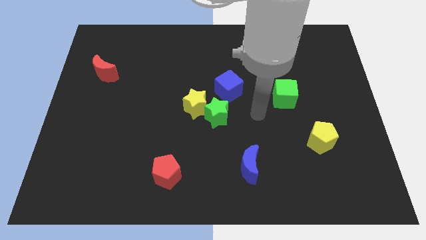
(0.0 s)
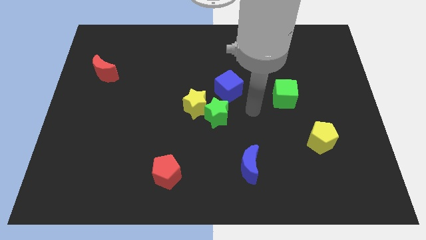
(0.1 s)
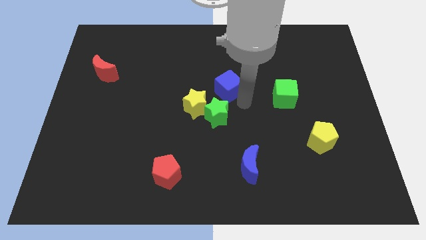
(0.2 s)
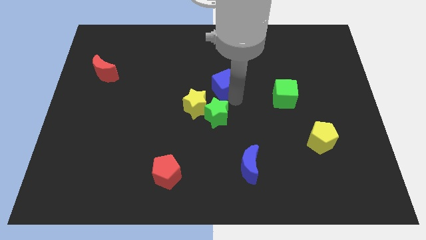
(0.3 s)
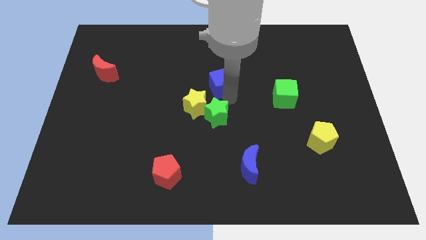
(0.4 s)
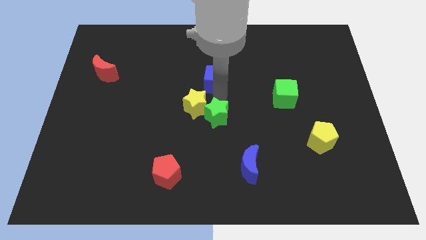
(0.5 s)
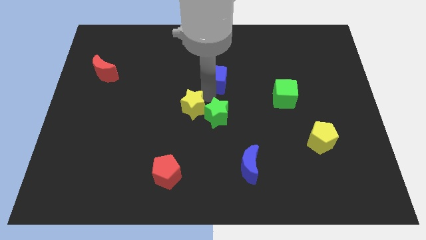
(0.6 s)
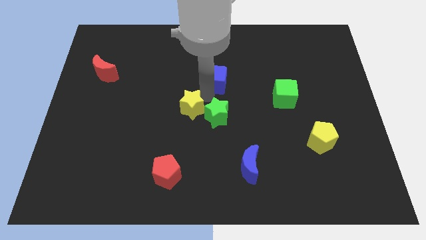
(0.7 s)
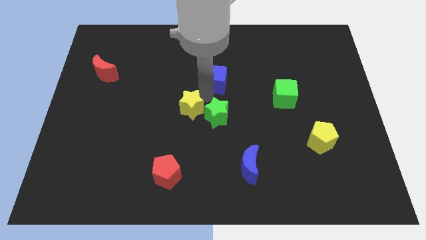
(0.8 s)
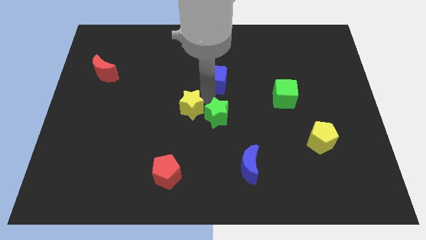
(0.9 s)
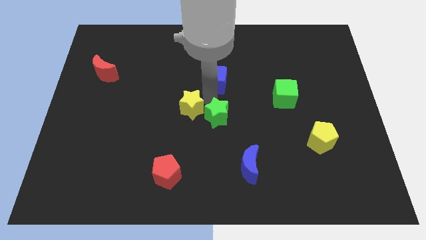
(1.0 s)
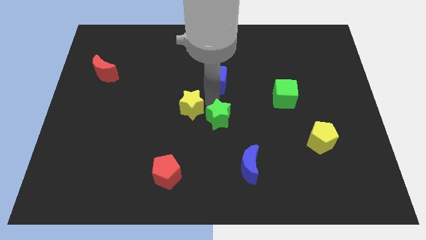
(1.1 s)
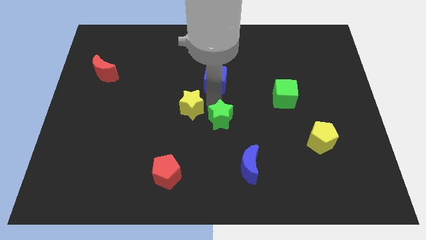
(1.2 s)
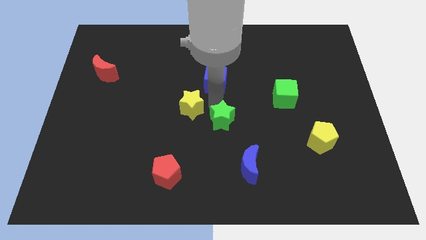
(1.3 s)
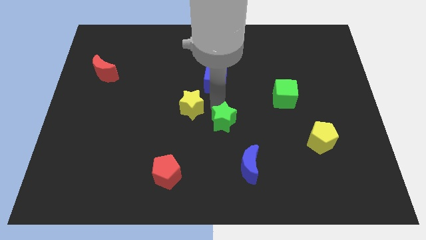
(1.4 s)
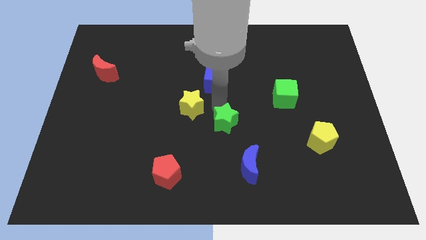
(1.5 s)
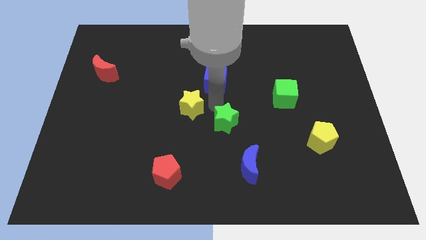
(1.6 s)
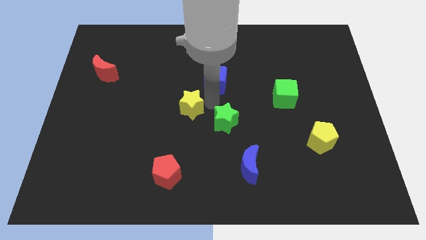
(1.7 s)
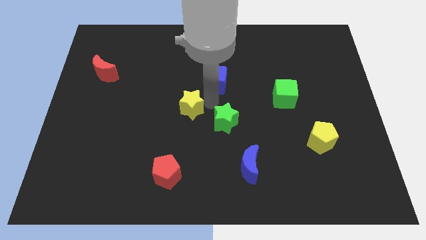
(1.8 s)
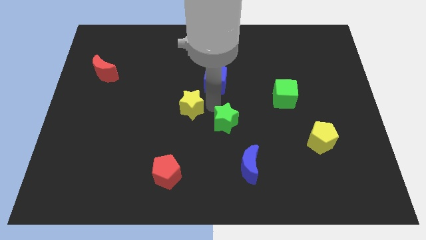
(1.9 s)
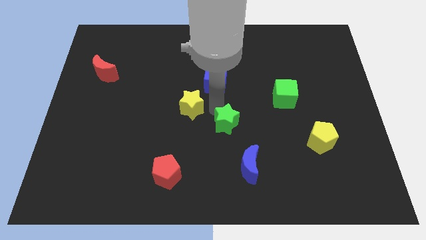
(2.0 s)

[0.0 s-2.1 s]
pull the green star apart from the yellow star and blue cube

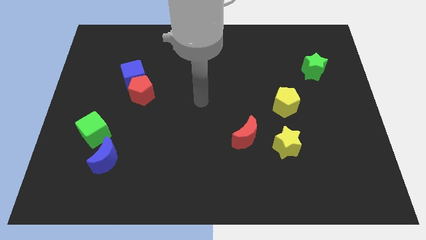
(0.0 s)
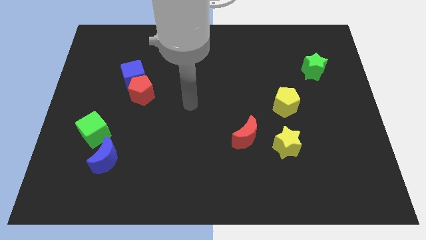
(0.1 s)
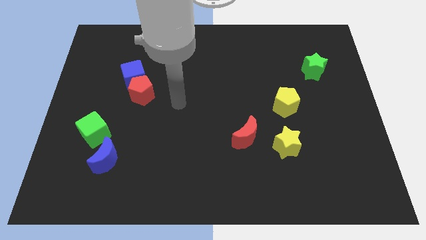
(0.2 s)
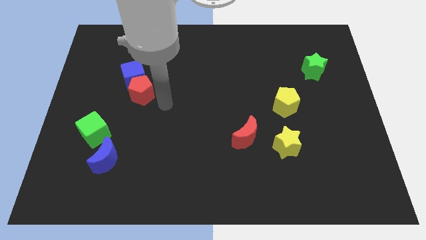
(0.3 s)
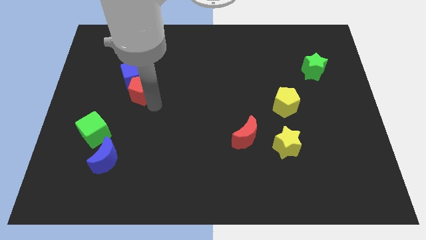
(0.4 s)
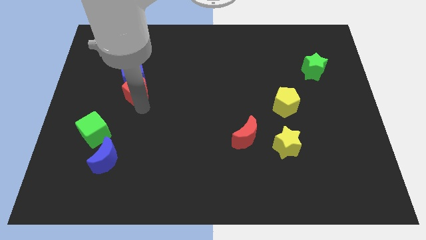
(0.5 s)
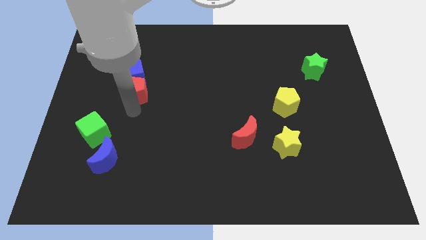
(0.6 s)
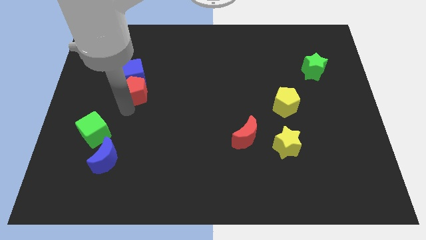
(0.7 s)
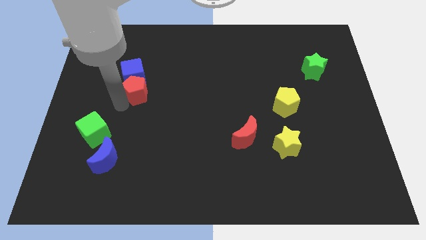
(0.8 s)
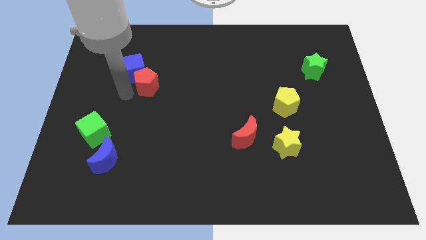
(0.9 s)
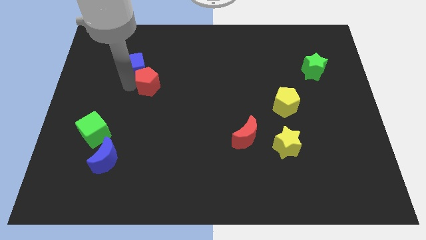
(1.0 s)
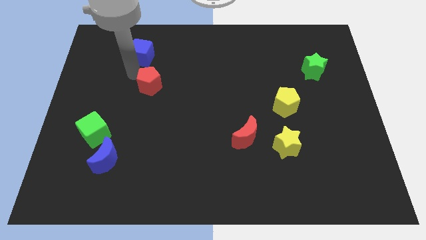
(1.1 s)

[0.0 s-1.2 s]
separate the red pentagon from the blue cube

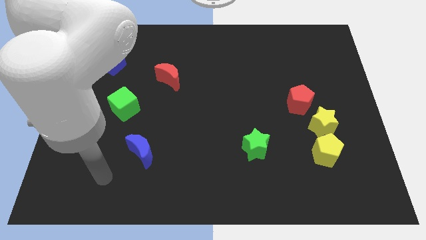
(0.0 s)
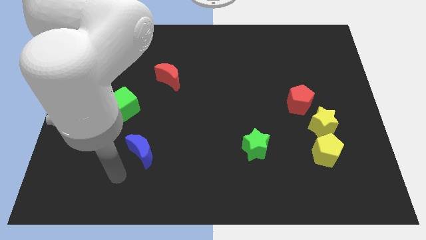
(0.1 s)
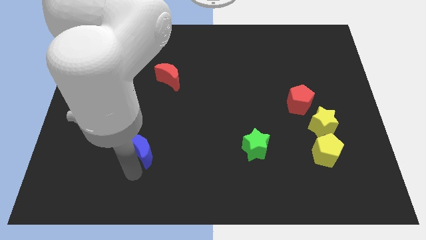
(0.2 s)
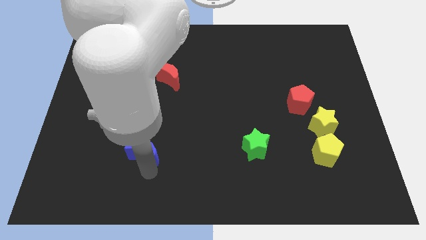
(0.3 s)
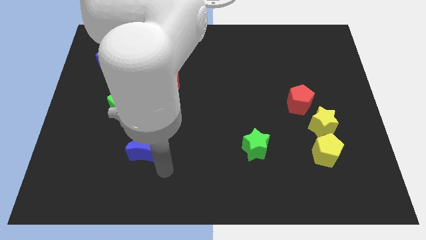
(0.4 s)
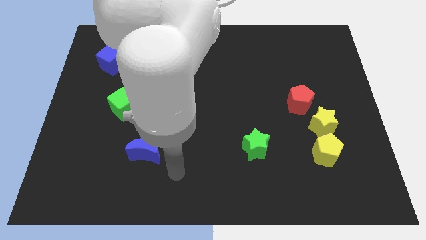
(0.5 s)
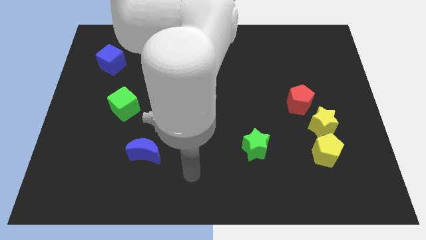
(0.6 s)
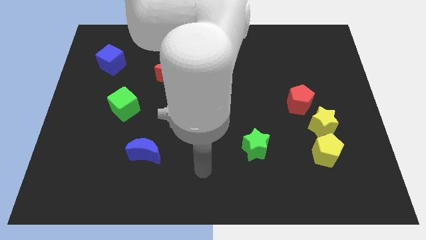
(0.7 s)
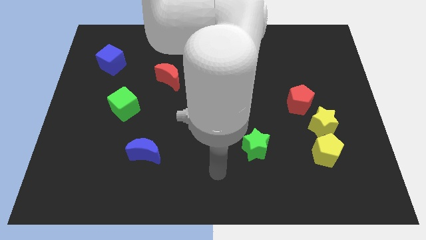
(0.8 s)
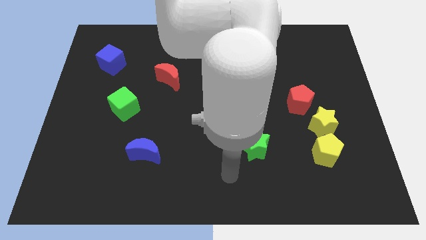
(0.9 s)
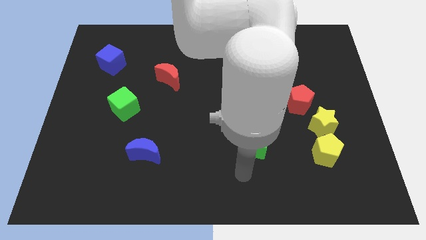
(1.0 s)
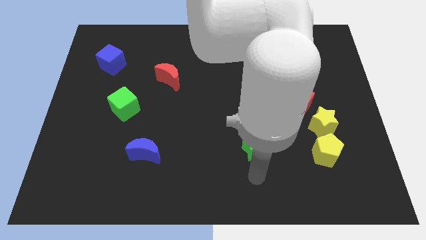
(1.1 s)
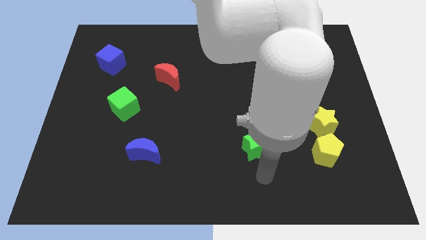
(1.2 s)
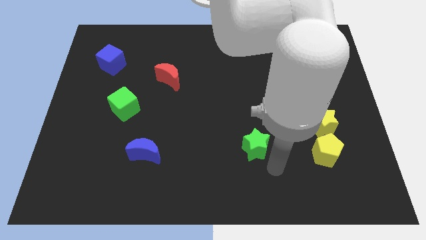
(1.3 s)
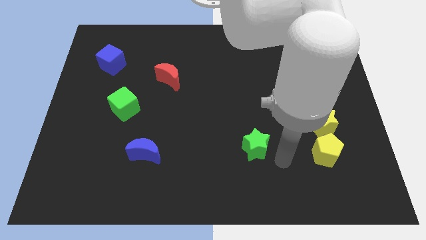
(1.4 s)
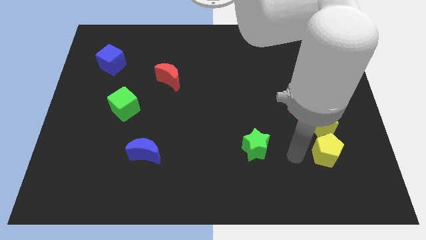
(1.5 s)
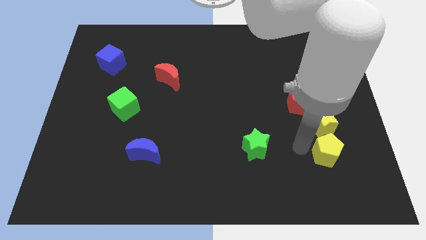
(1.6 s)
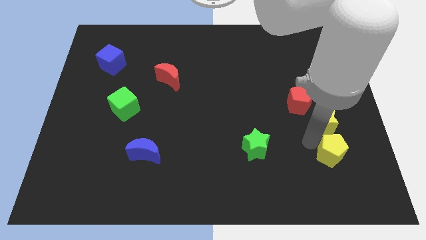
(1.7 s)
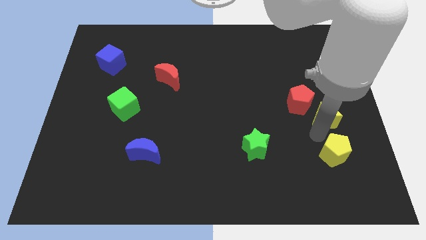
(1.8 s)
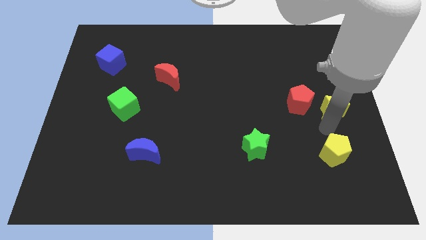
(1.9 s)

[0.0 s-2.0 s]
pull the yellow pentagon apart from the yellow star

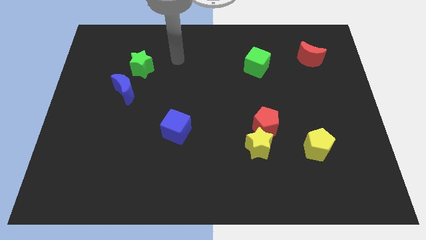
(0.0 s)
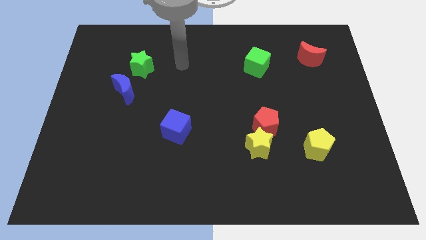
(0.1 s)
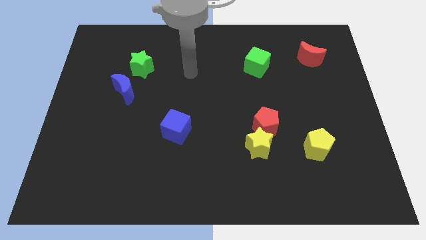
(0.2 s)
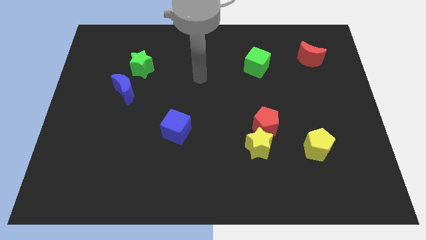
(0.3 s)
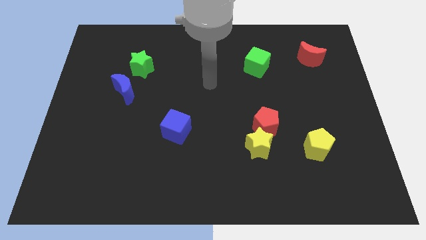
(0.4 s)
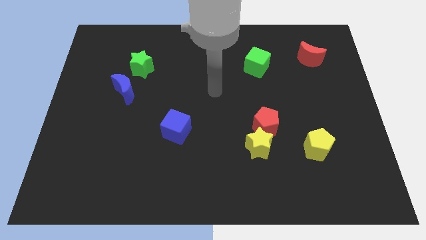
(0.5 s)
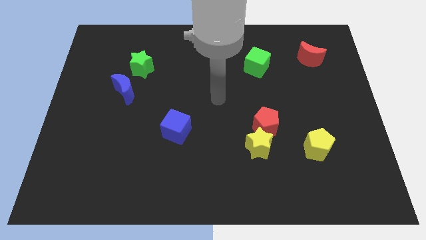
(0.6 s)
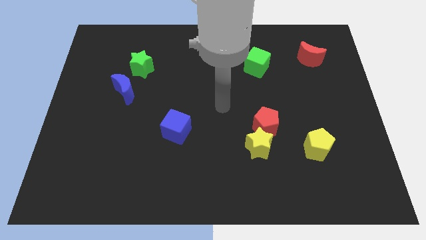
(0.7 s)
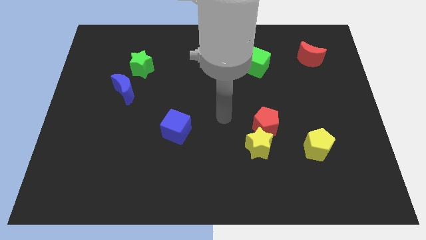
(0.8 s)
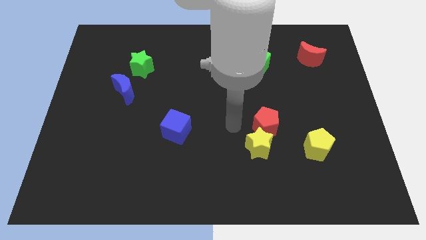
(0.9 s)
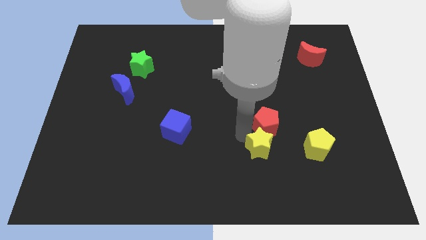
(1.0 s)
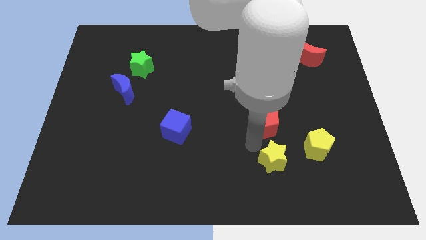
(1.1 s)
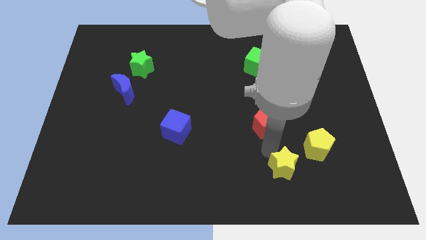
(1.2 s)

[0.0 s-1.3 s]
move the red pentagon away from the yellow star

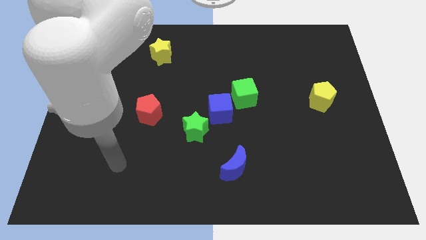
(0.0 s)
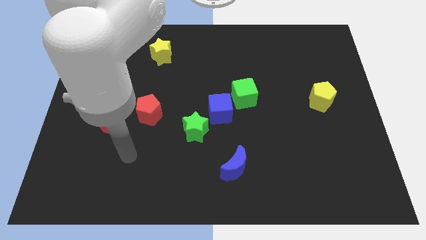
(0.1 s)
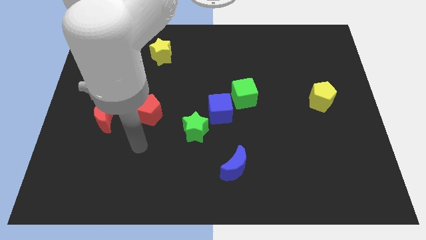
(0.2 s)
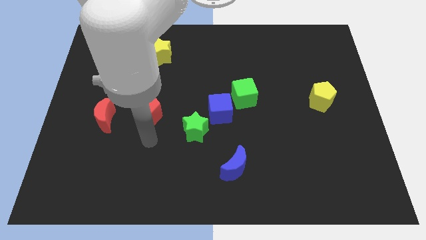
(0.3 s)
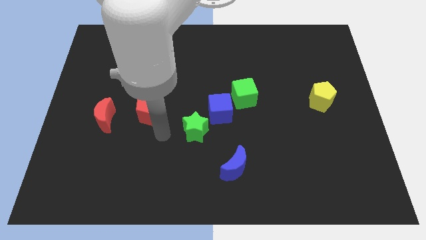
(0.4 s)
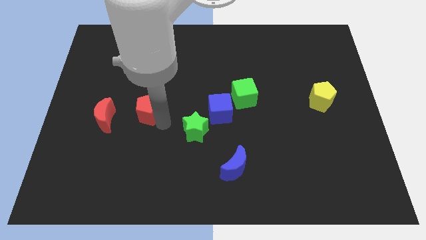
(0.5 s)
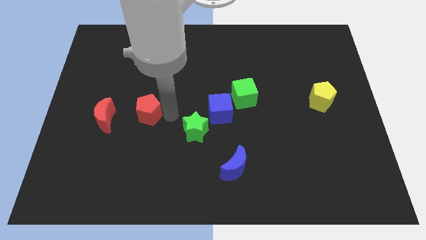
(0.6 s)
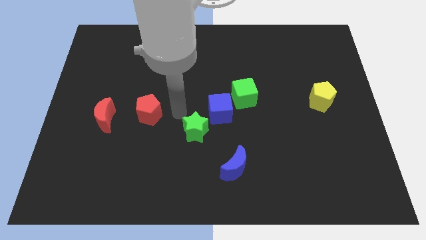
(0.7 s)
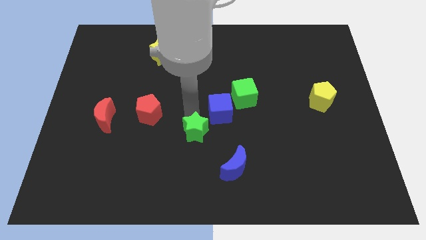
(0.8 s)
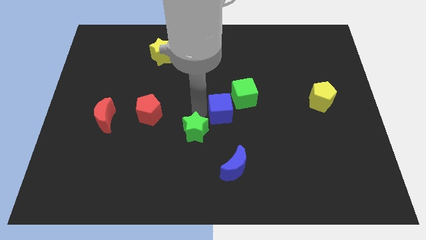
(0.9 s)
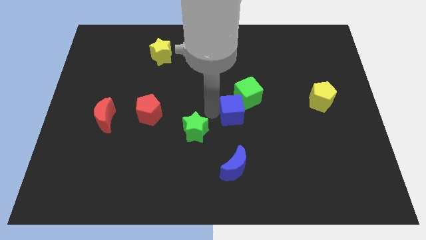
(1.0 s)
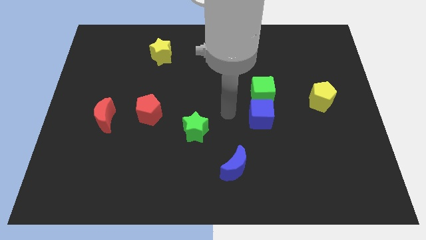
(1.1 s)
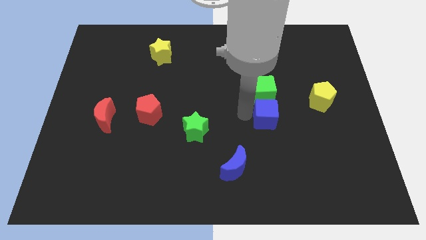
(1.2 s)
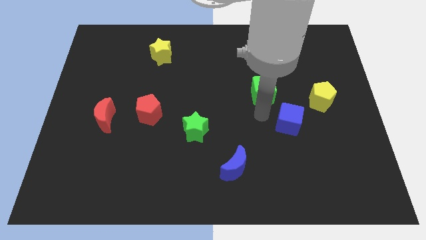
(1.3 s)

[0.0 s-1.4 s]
separate the green cube from the blue cube

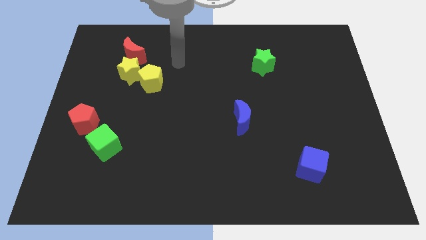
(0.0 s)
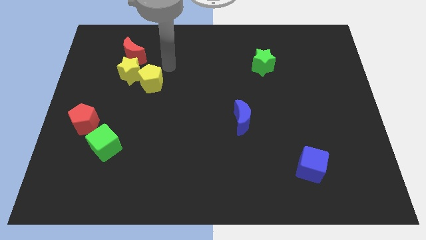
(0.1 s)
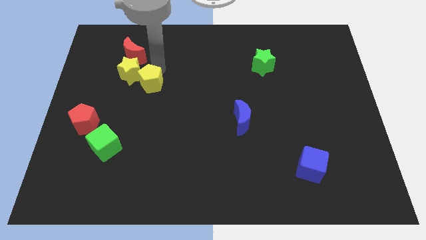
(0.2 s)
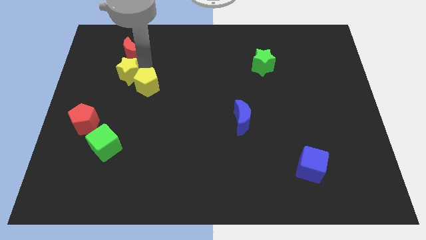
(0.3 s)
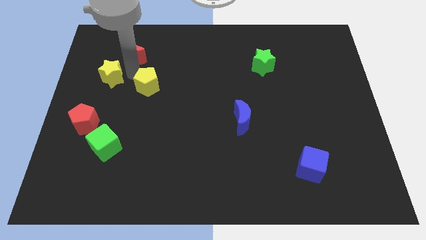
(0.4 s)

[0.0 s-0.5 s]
move the yellow pentagon away from the yellow star

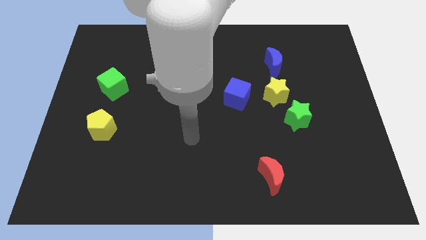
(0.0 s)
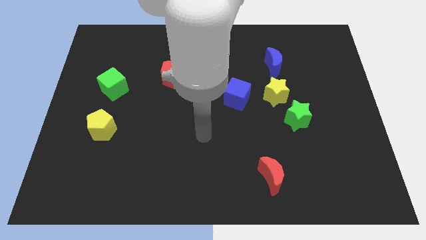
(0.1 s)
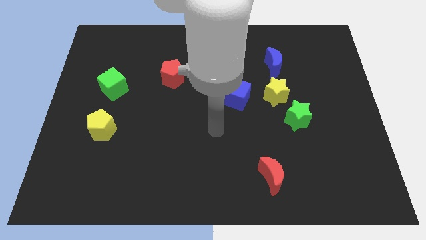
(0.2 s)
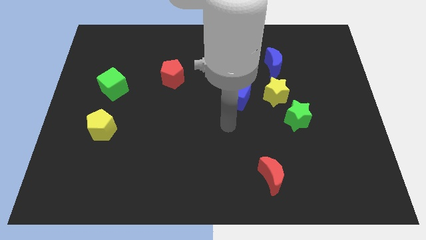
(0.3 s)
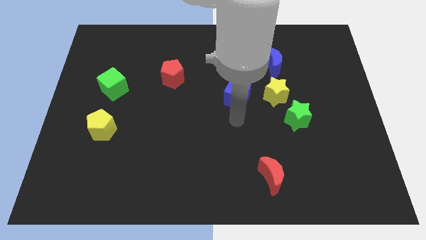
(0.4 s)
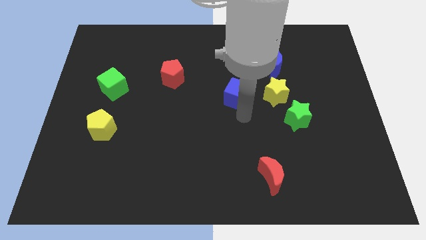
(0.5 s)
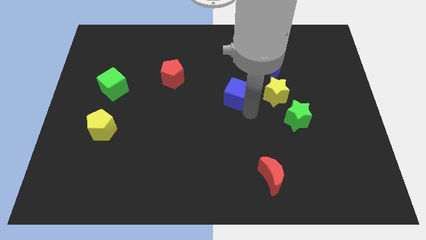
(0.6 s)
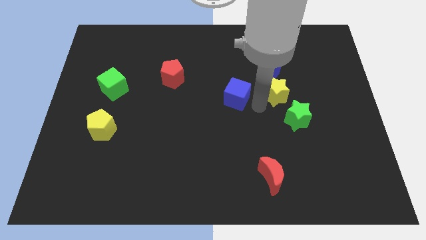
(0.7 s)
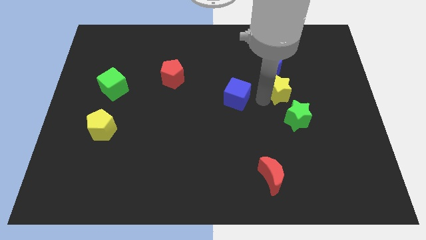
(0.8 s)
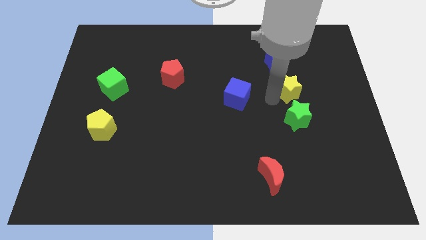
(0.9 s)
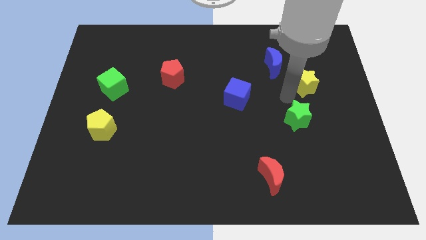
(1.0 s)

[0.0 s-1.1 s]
separate the green star from the yellow star
